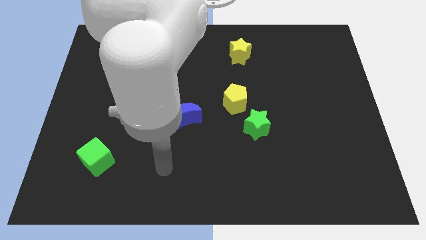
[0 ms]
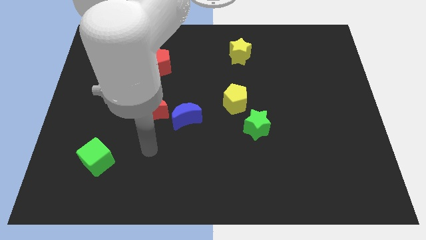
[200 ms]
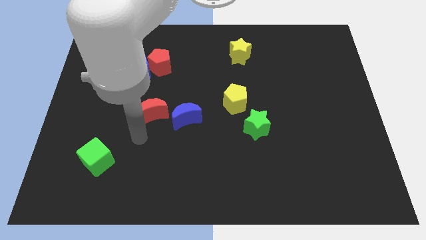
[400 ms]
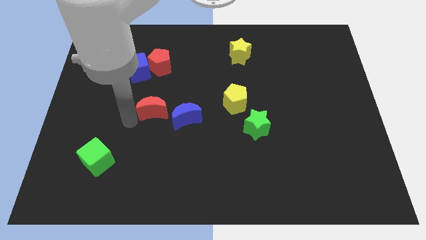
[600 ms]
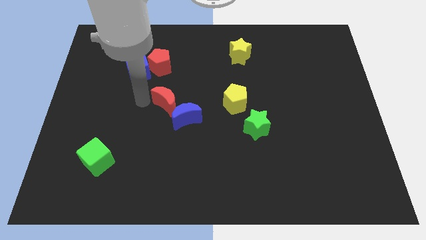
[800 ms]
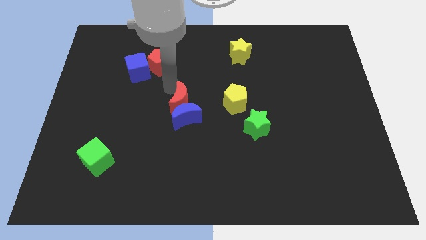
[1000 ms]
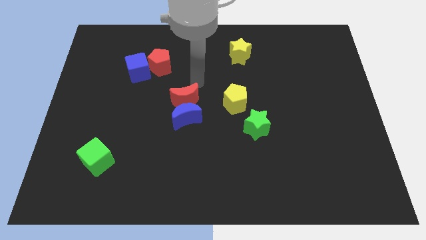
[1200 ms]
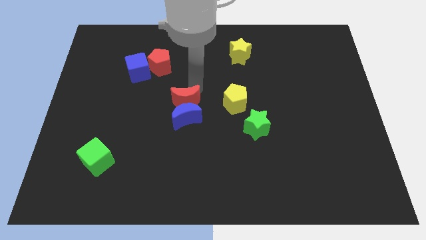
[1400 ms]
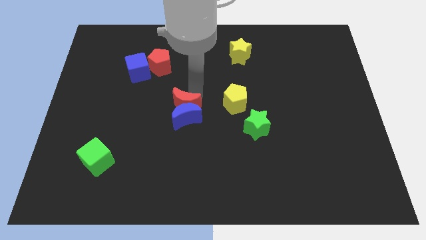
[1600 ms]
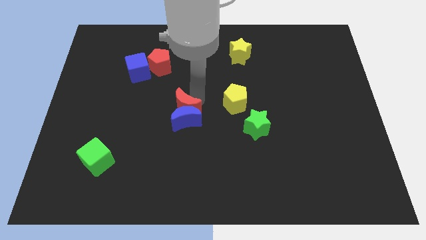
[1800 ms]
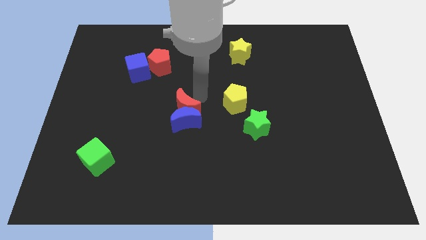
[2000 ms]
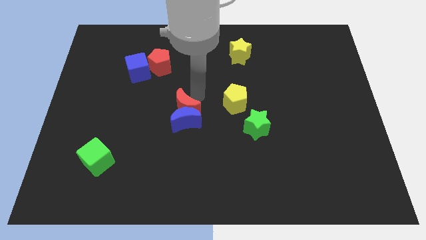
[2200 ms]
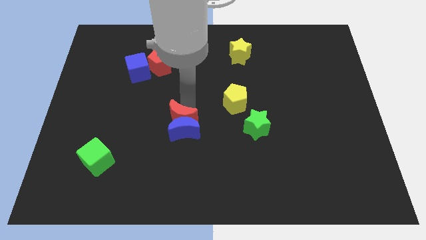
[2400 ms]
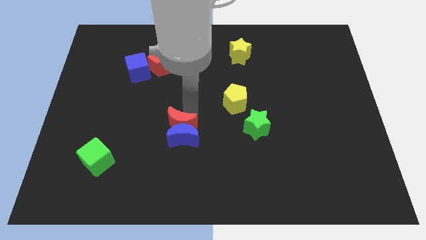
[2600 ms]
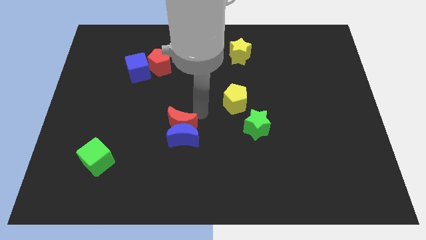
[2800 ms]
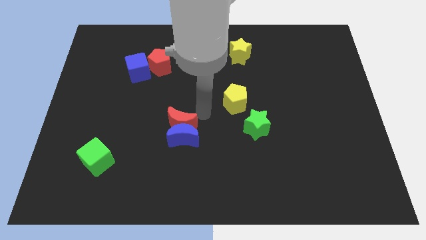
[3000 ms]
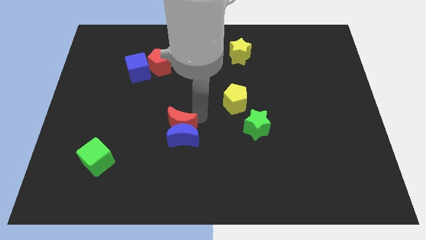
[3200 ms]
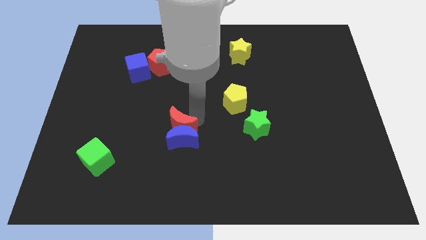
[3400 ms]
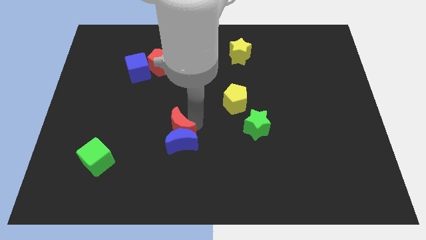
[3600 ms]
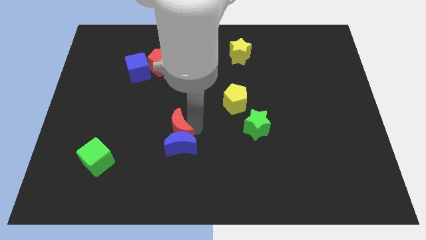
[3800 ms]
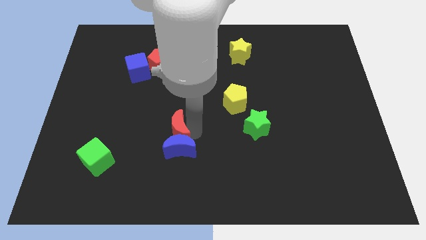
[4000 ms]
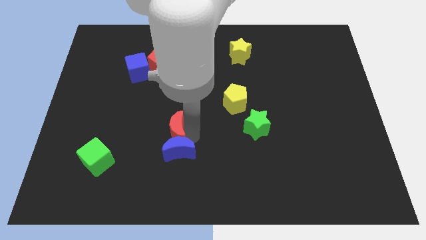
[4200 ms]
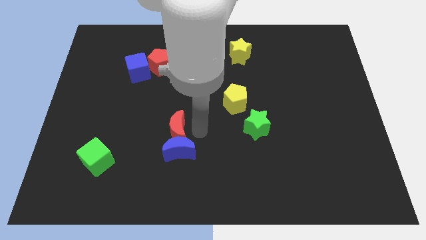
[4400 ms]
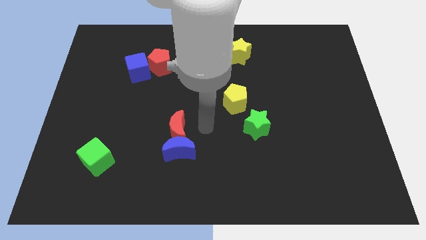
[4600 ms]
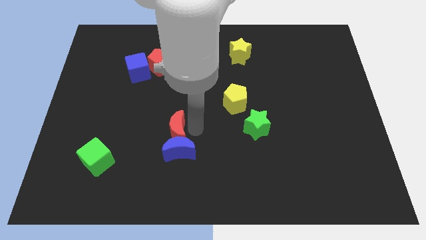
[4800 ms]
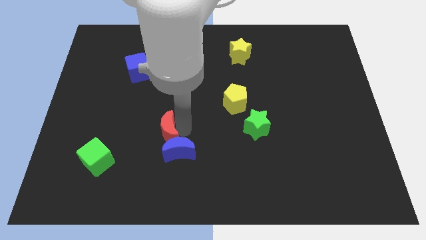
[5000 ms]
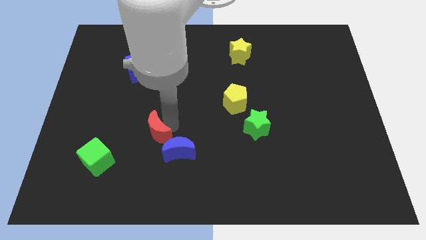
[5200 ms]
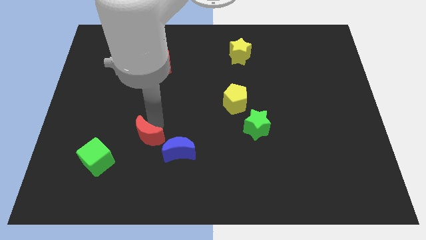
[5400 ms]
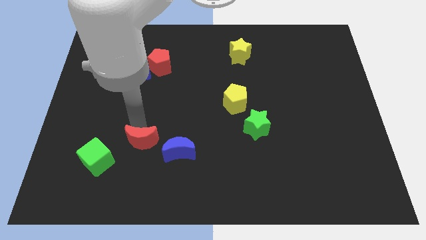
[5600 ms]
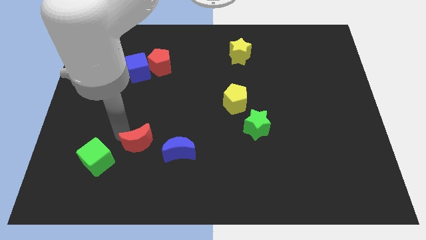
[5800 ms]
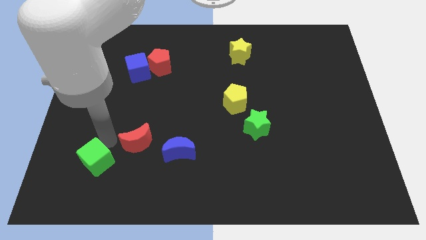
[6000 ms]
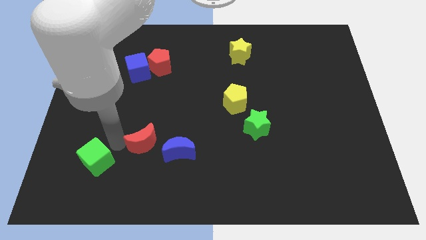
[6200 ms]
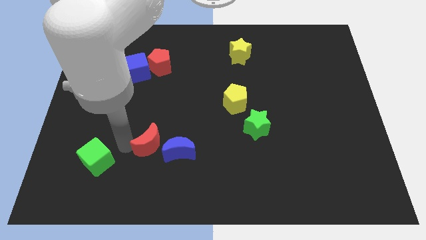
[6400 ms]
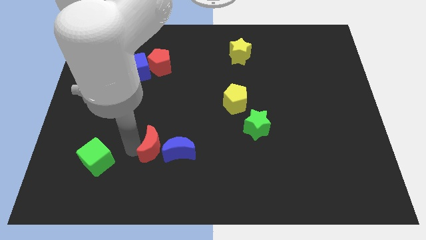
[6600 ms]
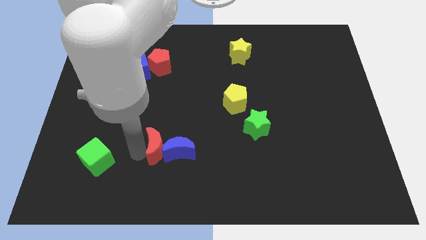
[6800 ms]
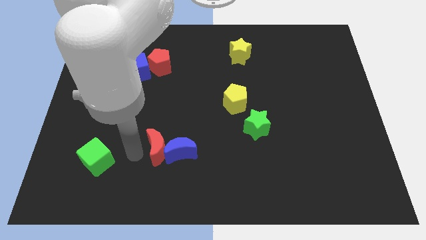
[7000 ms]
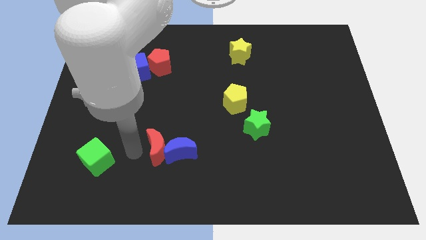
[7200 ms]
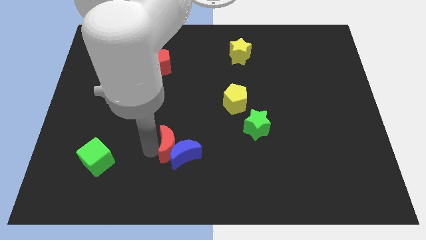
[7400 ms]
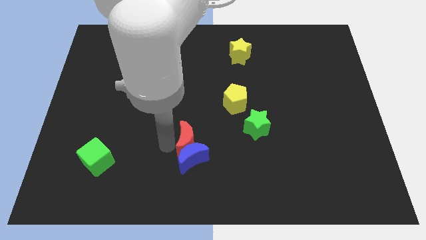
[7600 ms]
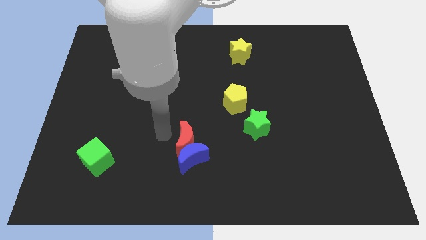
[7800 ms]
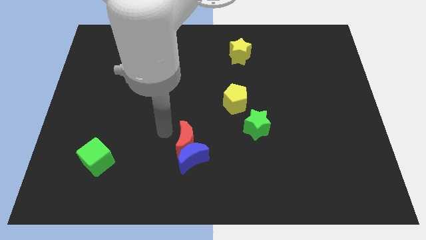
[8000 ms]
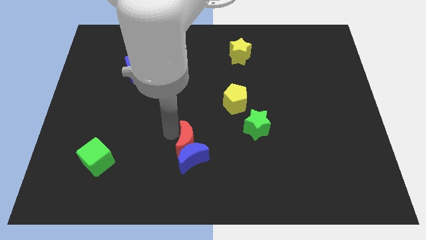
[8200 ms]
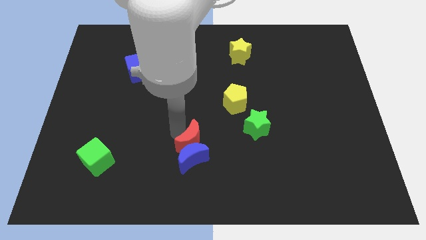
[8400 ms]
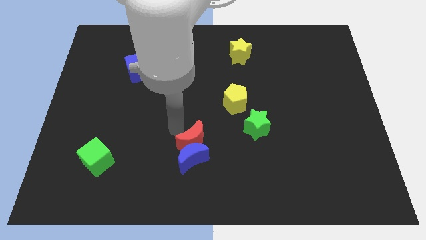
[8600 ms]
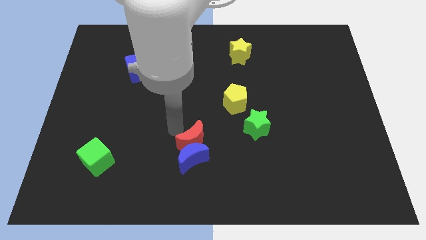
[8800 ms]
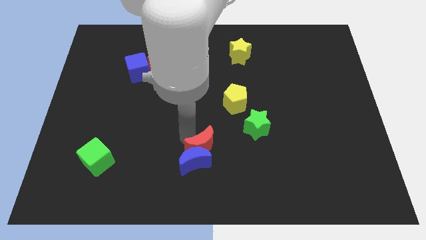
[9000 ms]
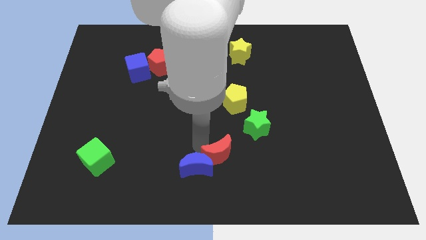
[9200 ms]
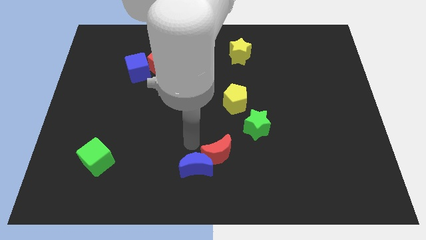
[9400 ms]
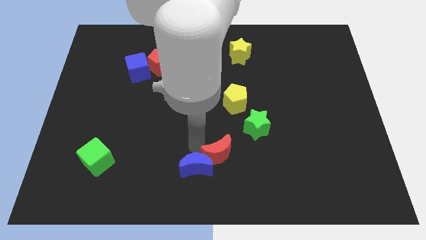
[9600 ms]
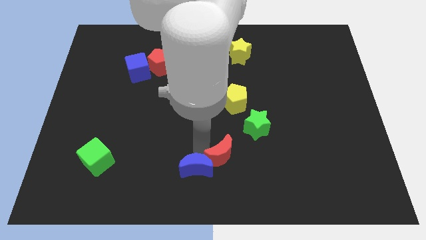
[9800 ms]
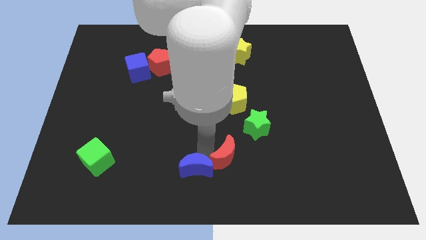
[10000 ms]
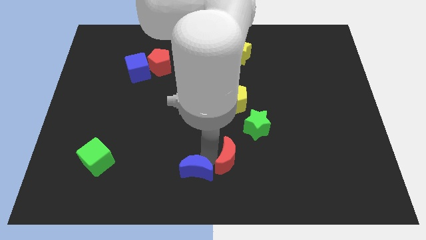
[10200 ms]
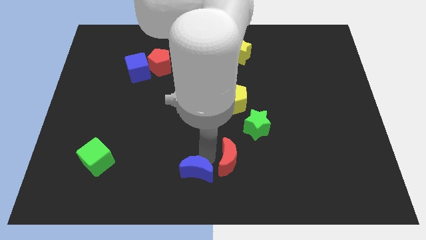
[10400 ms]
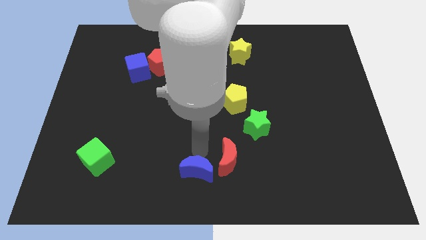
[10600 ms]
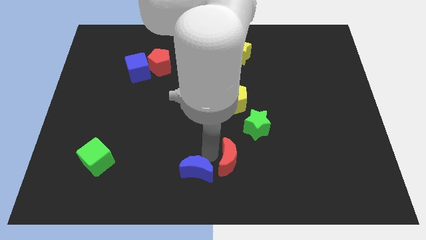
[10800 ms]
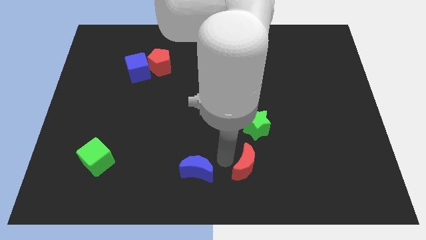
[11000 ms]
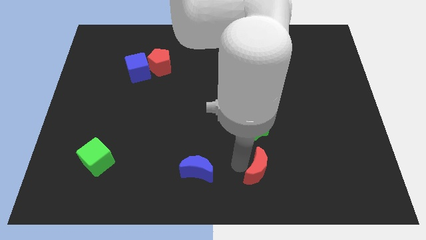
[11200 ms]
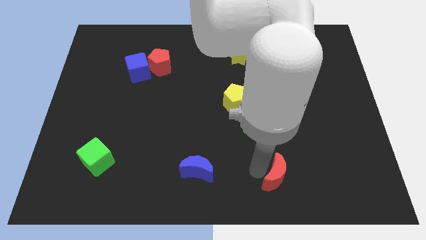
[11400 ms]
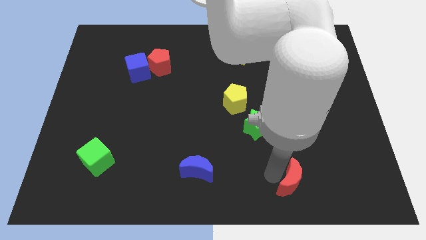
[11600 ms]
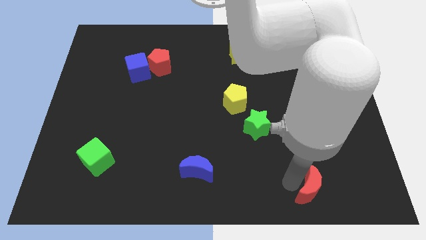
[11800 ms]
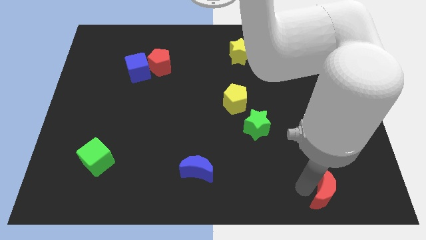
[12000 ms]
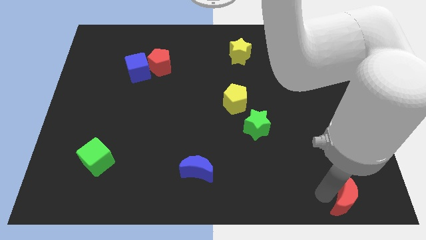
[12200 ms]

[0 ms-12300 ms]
push the red moon to the bottom right corner
